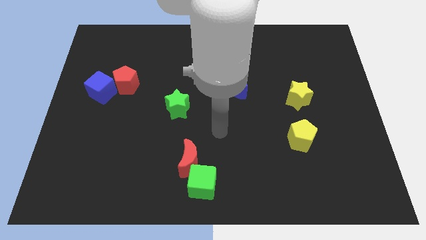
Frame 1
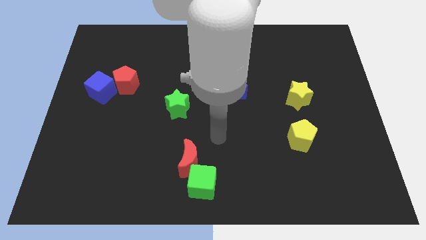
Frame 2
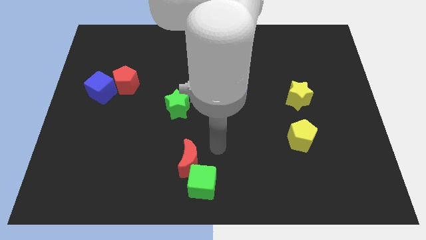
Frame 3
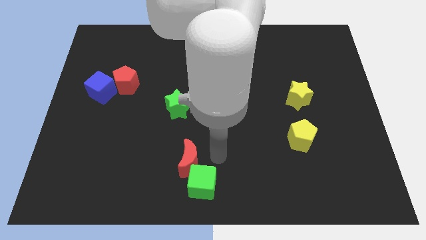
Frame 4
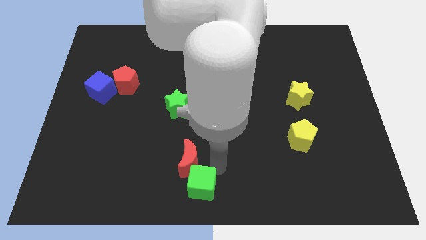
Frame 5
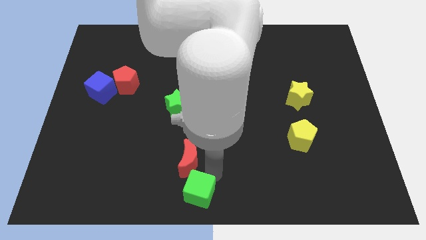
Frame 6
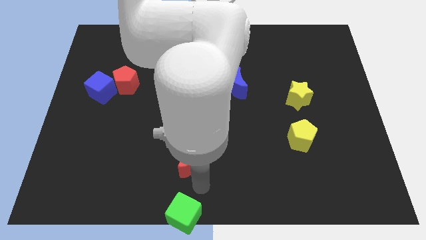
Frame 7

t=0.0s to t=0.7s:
pull the red moon apart from the green cube

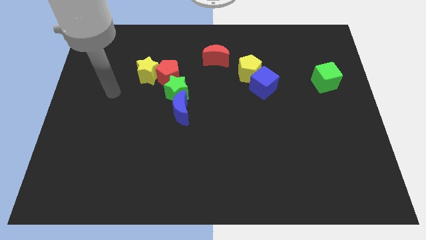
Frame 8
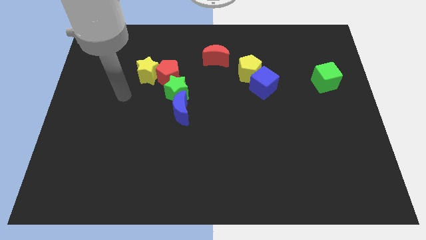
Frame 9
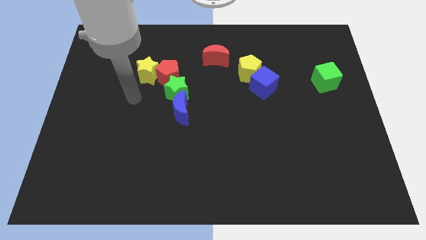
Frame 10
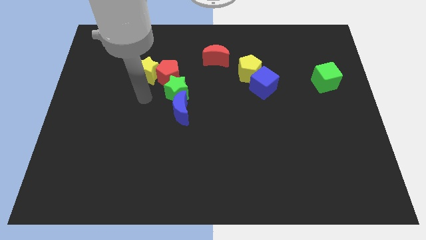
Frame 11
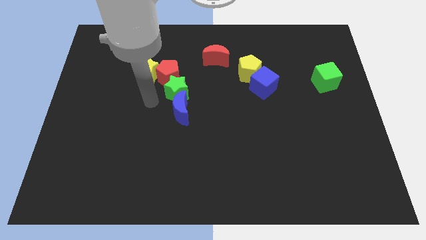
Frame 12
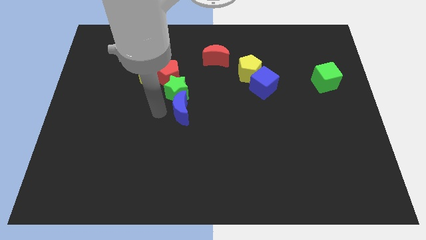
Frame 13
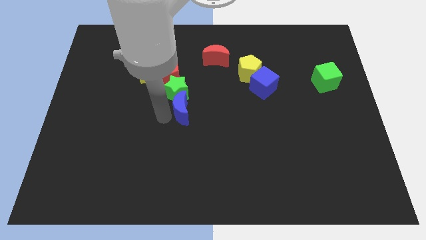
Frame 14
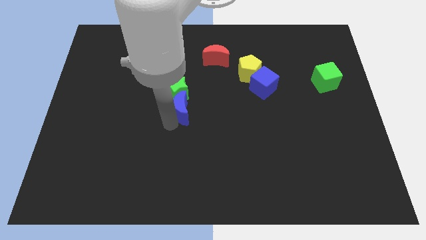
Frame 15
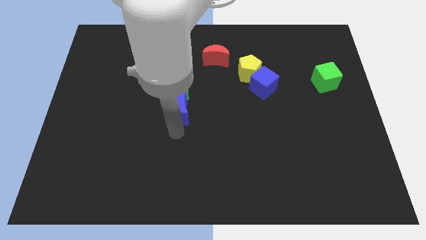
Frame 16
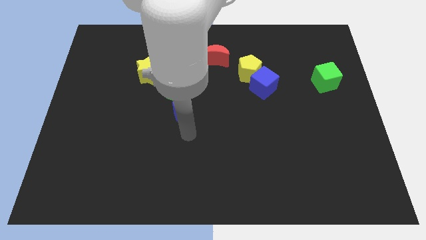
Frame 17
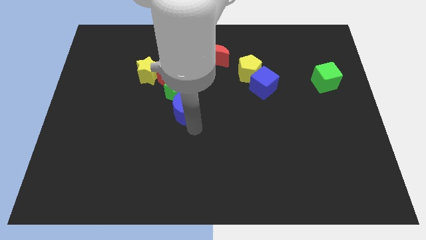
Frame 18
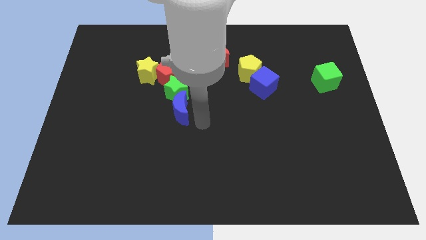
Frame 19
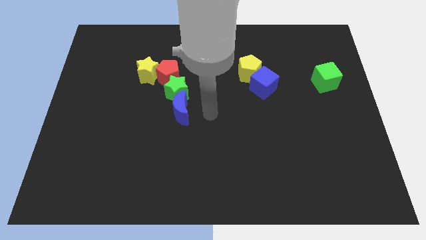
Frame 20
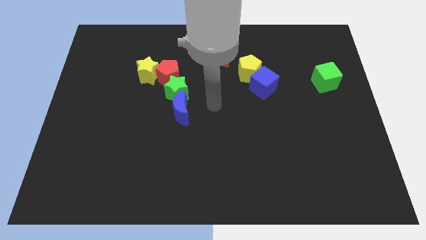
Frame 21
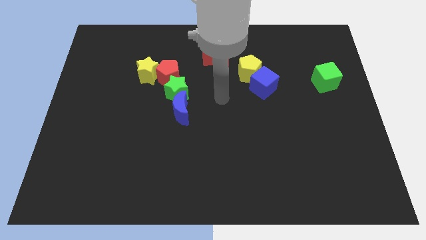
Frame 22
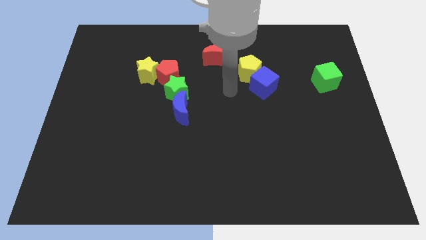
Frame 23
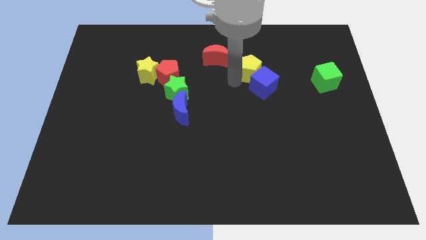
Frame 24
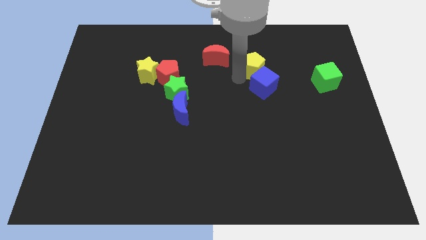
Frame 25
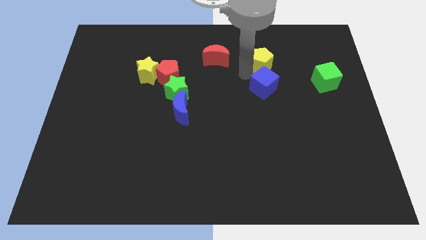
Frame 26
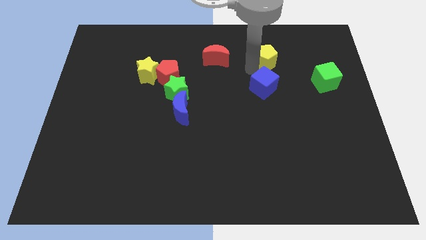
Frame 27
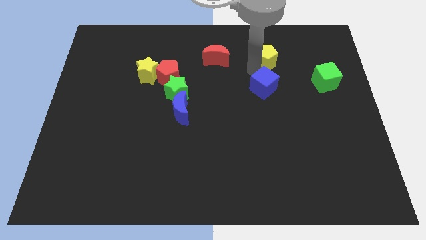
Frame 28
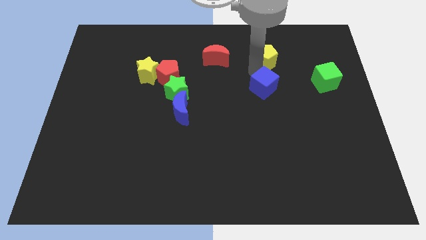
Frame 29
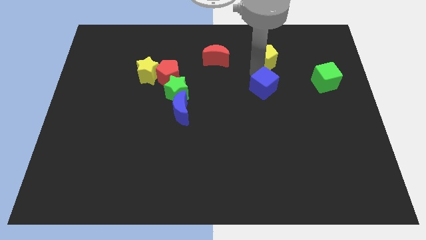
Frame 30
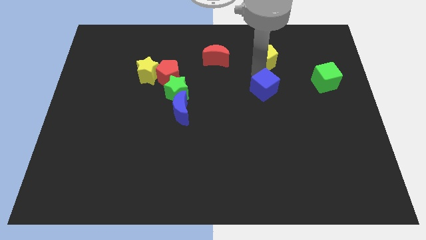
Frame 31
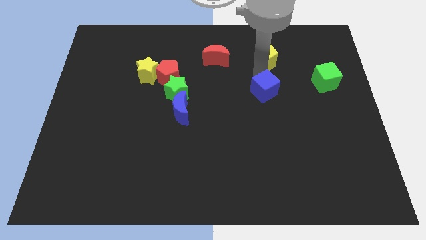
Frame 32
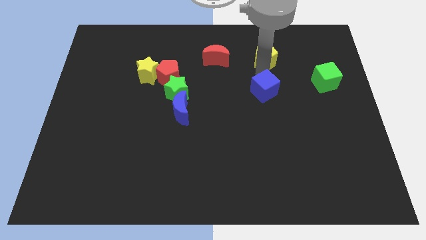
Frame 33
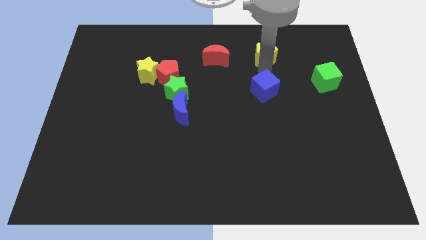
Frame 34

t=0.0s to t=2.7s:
move the blue cube away from the yellow pentagon

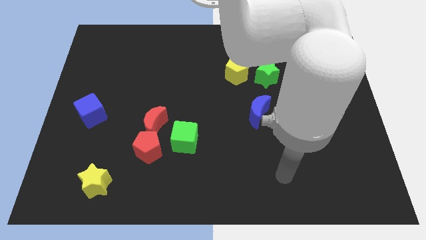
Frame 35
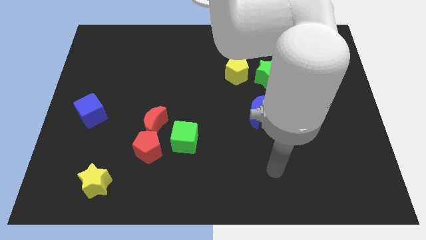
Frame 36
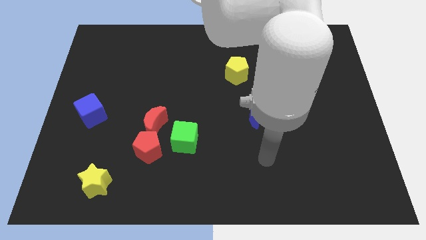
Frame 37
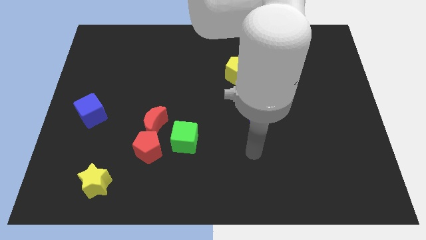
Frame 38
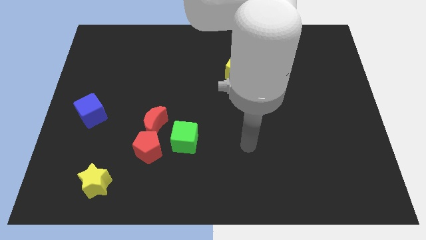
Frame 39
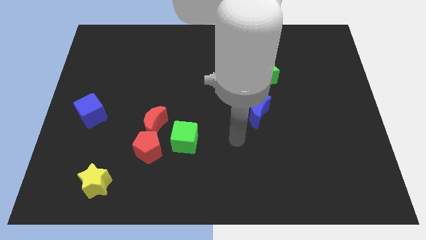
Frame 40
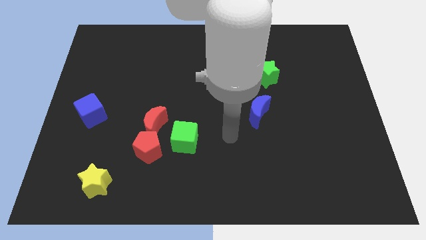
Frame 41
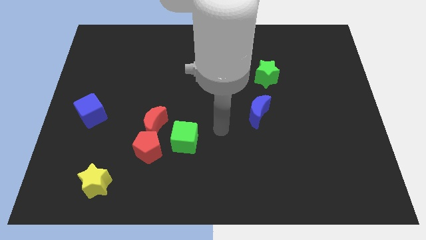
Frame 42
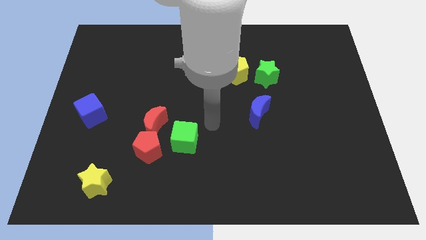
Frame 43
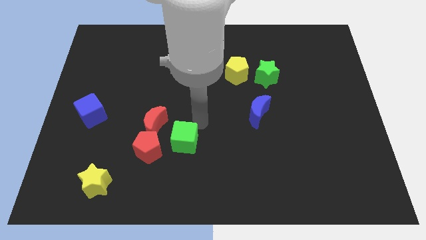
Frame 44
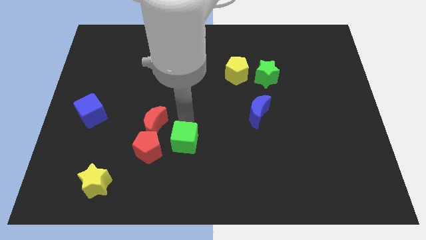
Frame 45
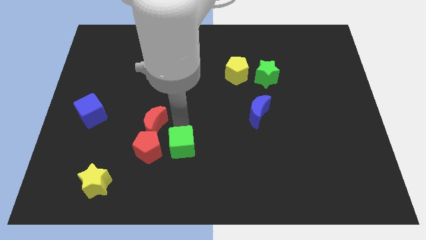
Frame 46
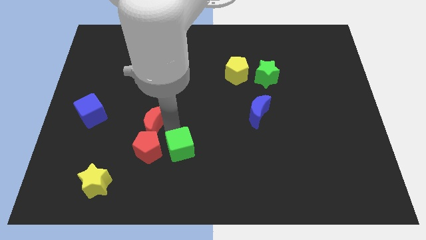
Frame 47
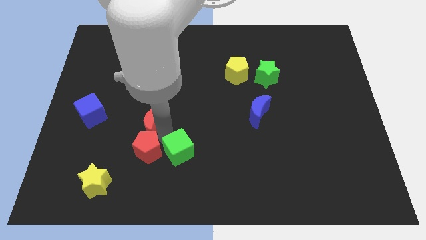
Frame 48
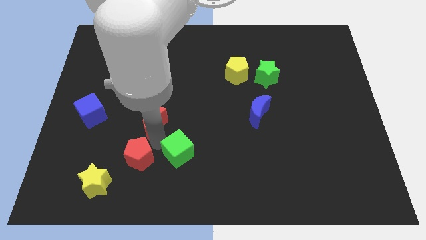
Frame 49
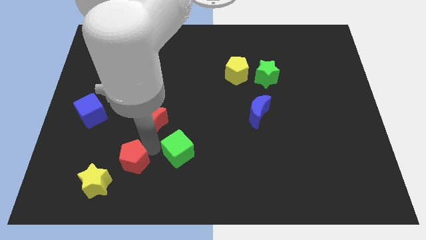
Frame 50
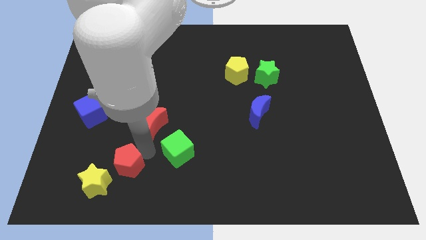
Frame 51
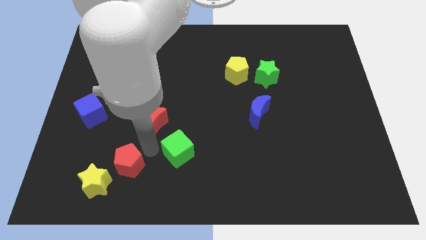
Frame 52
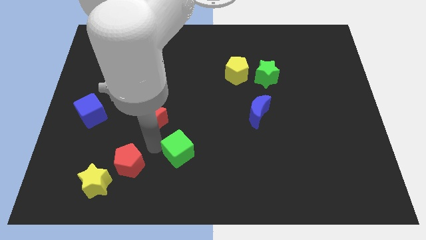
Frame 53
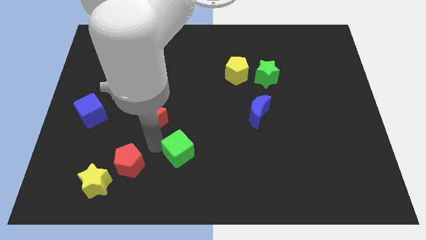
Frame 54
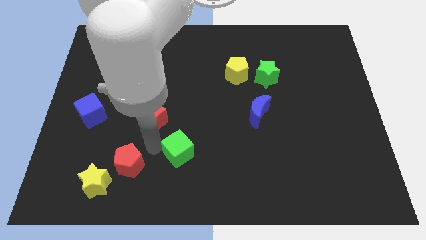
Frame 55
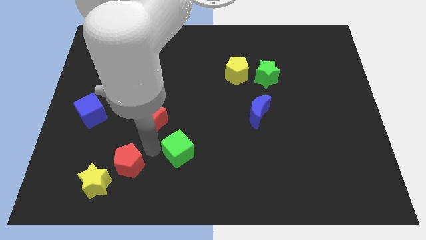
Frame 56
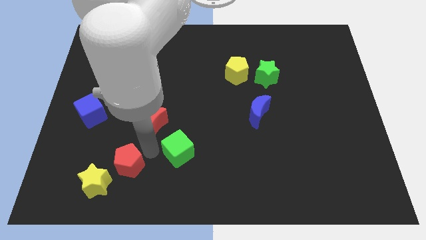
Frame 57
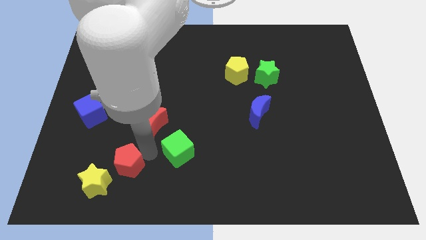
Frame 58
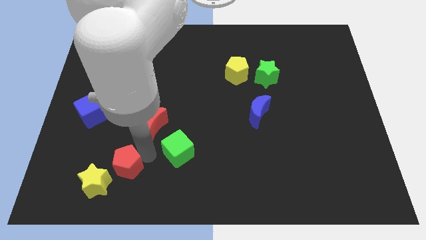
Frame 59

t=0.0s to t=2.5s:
separate the red pentagon from the red moon and green cube

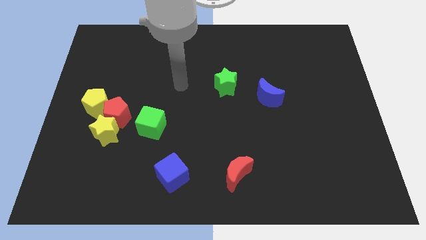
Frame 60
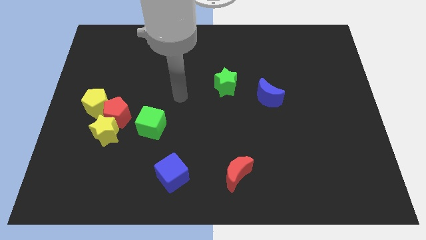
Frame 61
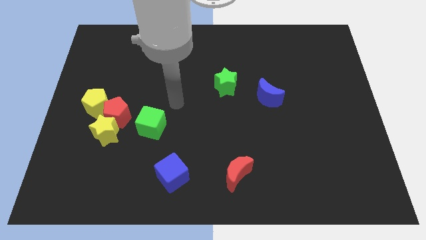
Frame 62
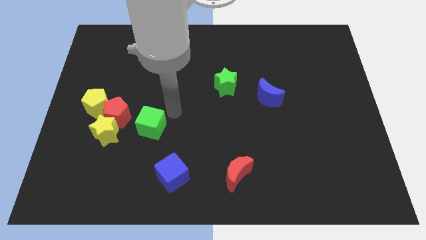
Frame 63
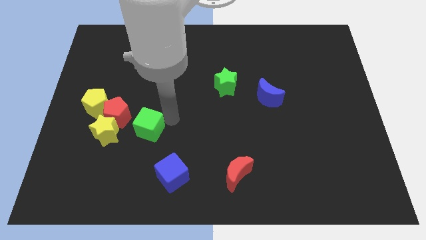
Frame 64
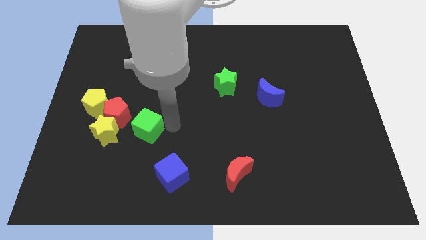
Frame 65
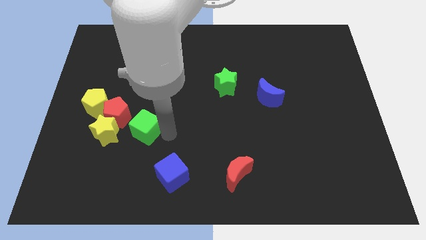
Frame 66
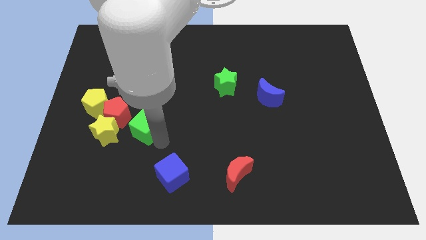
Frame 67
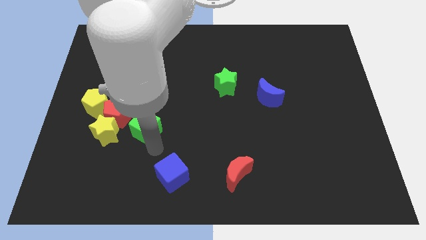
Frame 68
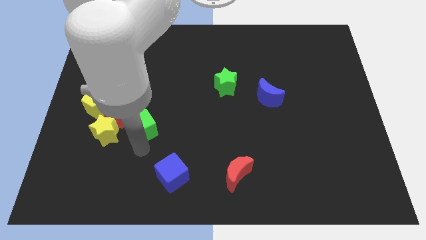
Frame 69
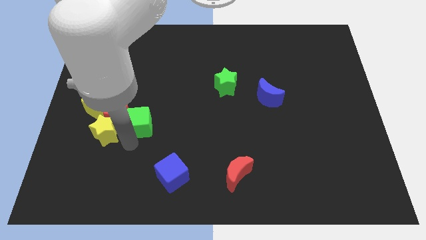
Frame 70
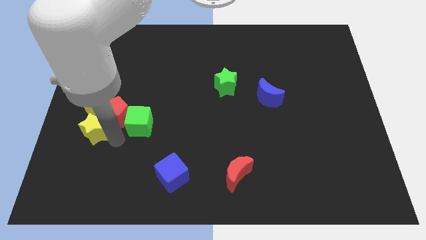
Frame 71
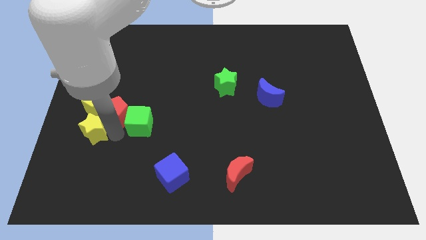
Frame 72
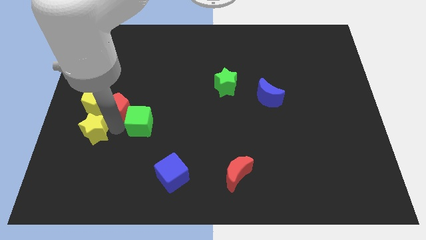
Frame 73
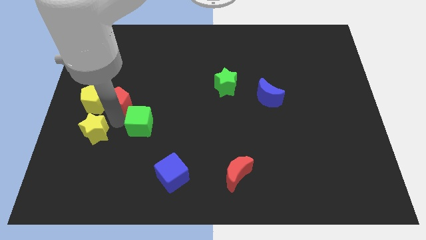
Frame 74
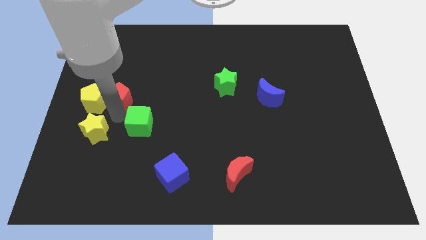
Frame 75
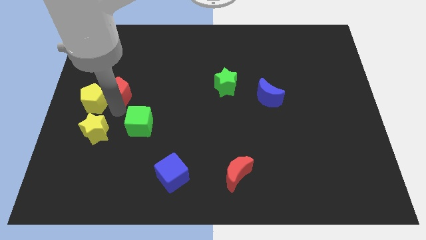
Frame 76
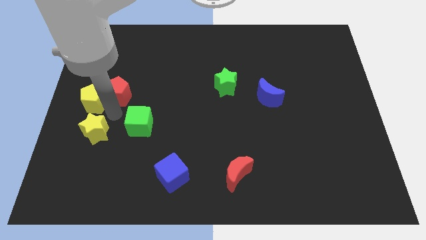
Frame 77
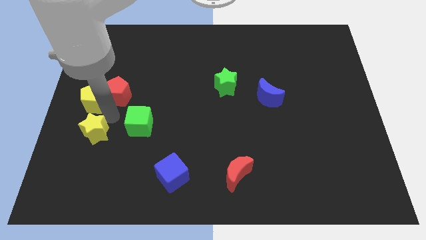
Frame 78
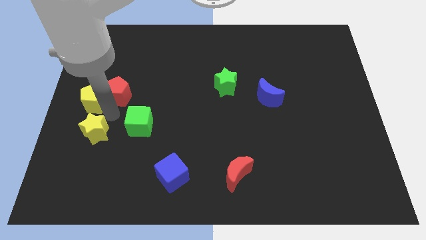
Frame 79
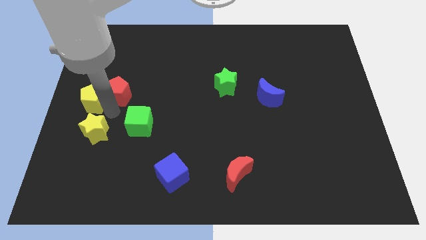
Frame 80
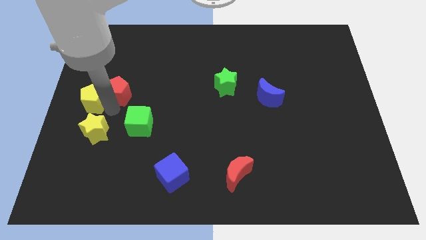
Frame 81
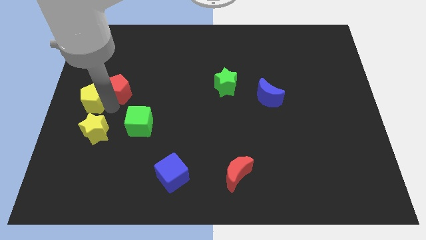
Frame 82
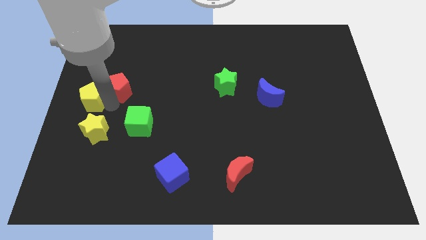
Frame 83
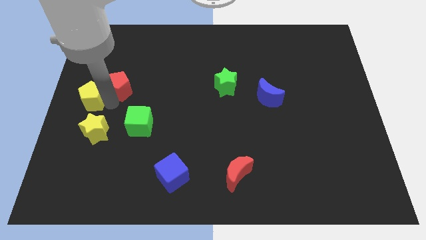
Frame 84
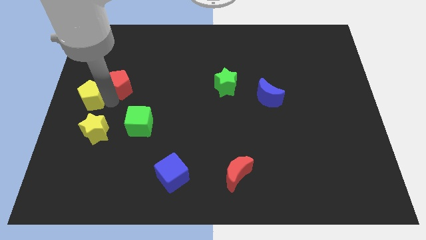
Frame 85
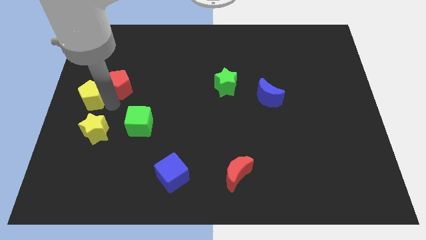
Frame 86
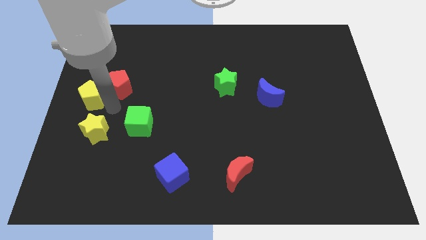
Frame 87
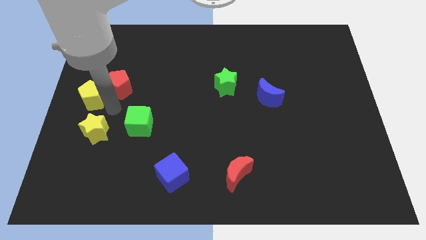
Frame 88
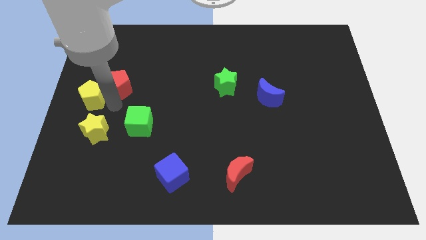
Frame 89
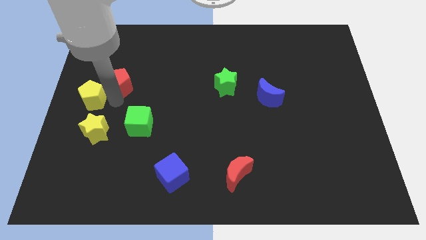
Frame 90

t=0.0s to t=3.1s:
move the red pentagon away from the group of blocks

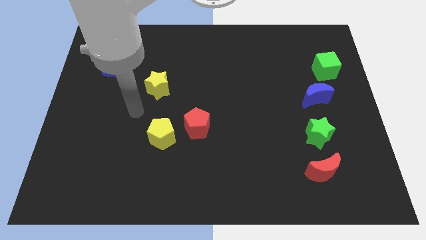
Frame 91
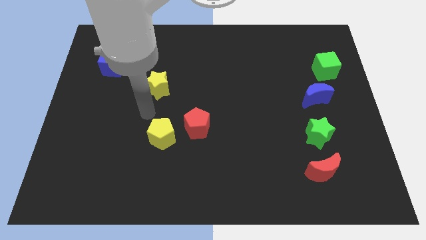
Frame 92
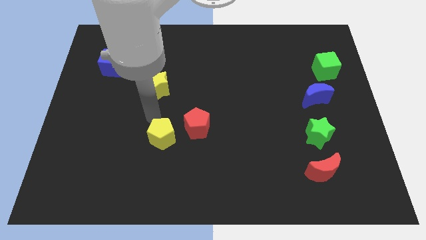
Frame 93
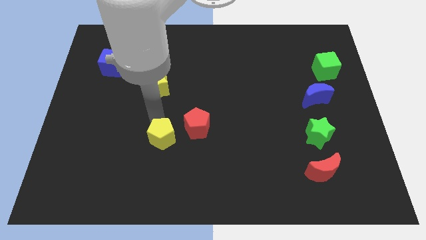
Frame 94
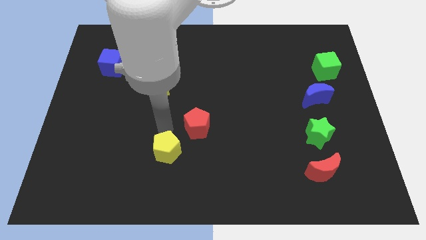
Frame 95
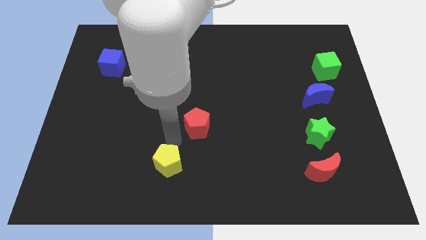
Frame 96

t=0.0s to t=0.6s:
move the red pentagon away from the yellow pentagon
